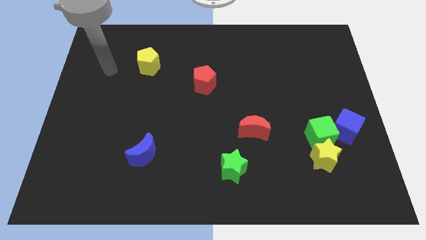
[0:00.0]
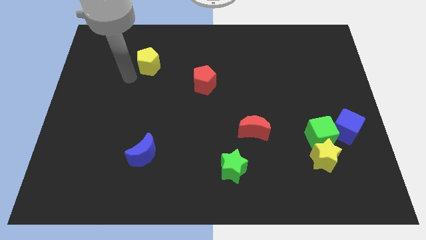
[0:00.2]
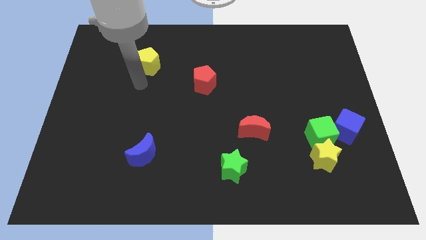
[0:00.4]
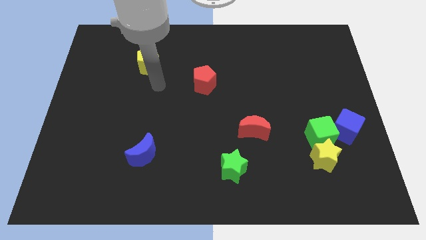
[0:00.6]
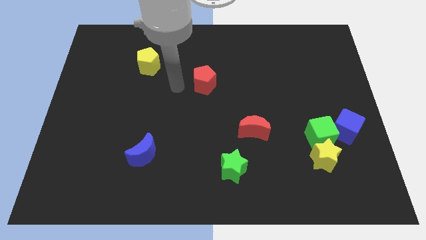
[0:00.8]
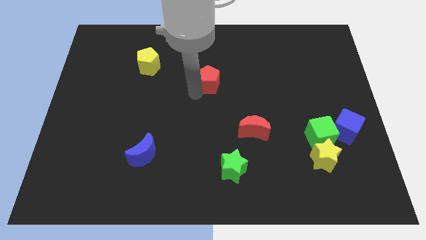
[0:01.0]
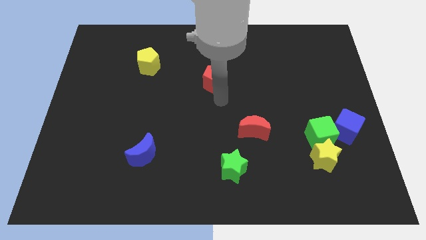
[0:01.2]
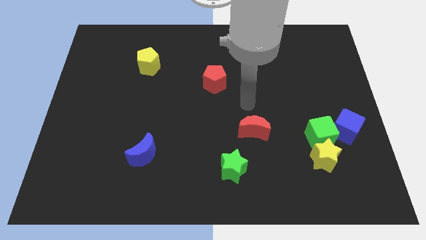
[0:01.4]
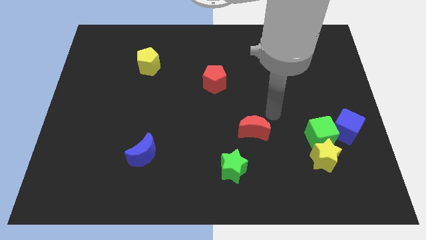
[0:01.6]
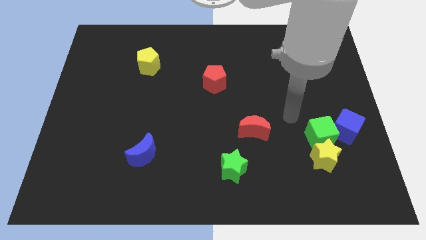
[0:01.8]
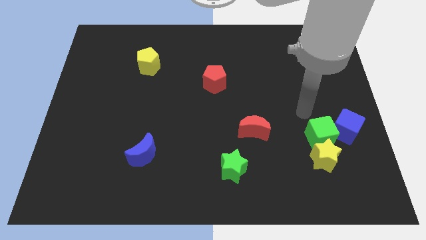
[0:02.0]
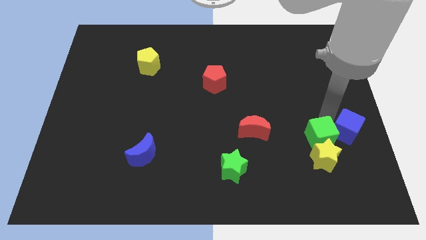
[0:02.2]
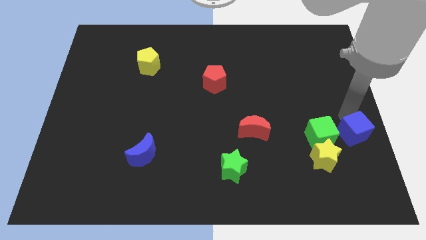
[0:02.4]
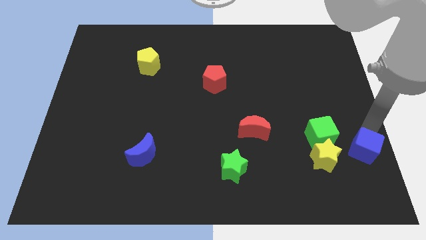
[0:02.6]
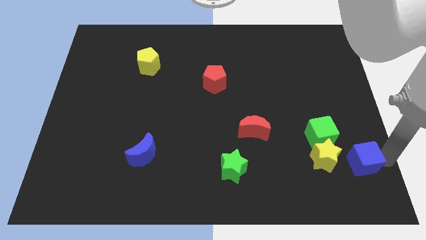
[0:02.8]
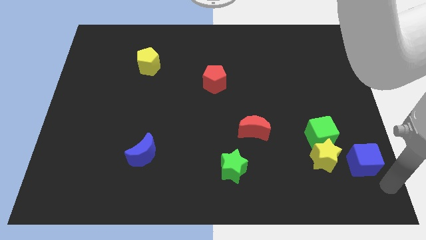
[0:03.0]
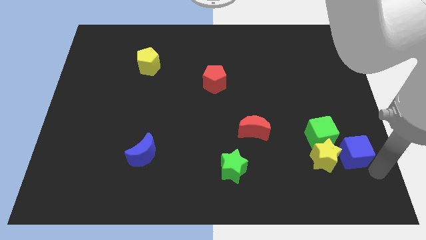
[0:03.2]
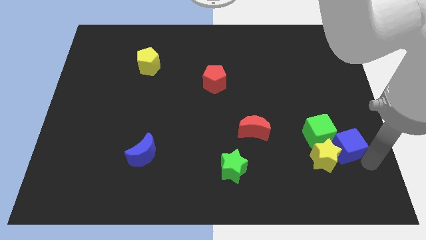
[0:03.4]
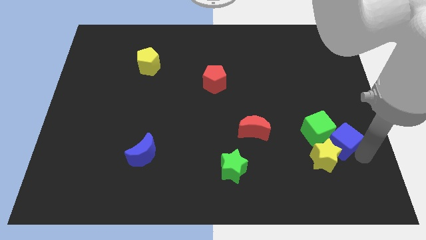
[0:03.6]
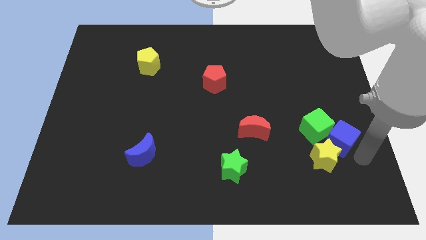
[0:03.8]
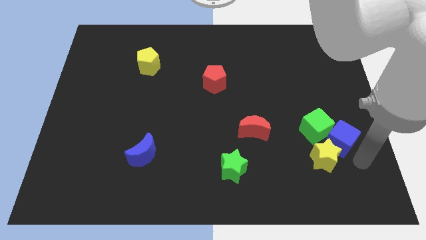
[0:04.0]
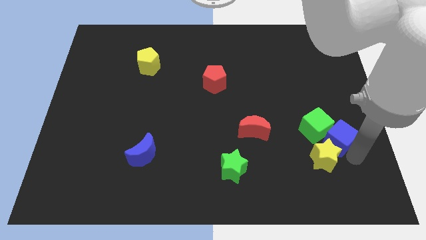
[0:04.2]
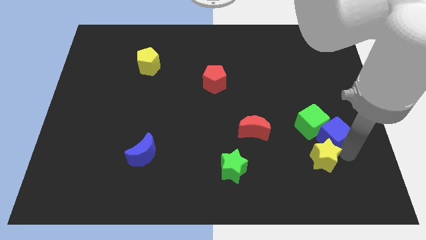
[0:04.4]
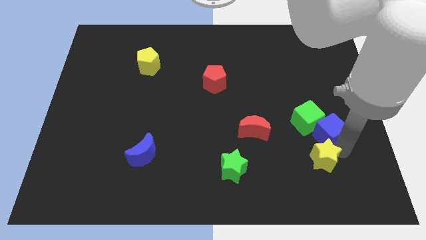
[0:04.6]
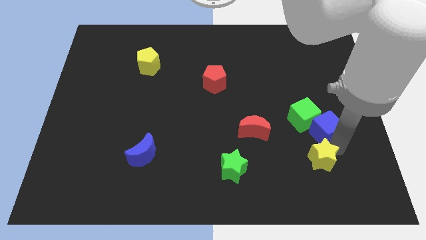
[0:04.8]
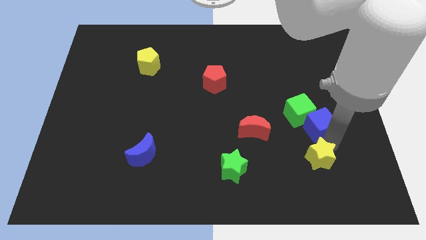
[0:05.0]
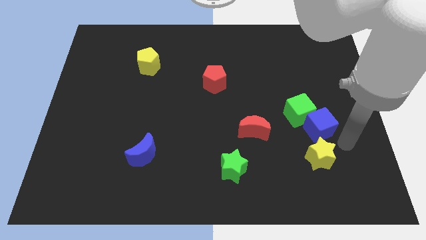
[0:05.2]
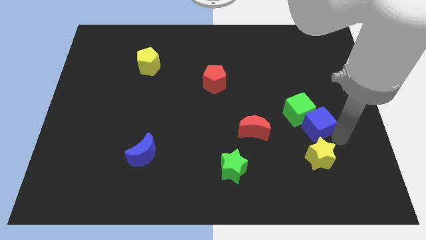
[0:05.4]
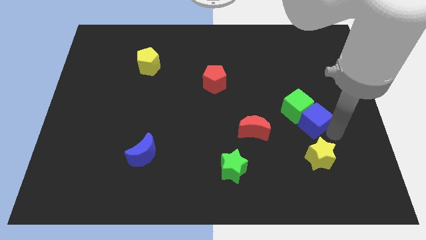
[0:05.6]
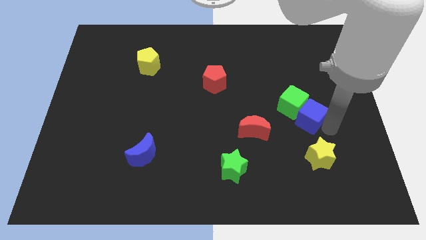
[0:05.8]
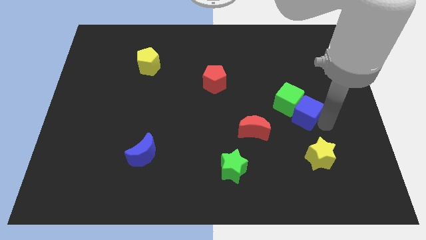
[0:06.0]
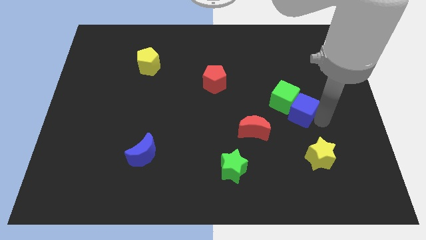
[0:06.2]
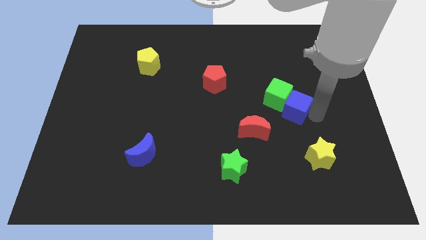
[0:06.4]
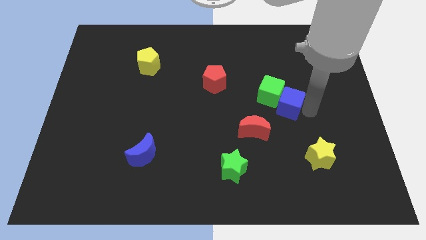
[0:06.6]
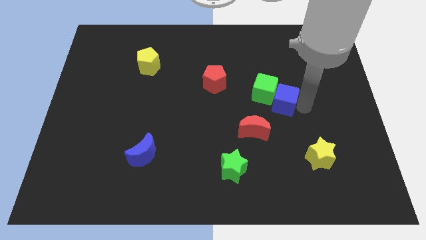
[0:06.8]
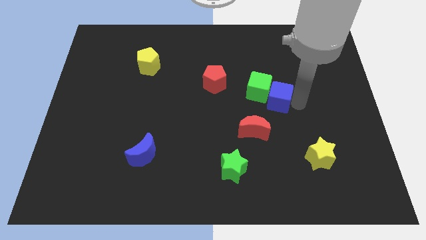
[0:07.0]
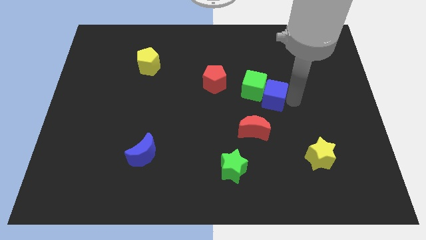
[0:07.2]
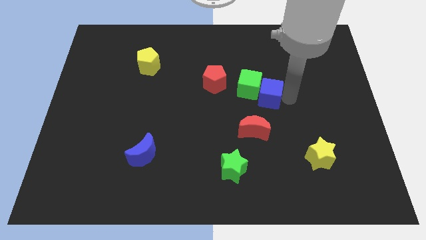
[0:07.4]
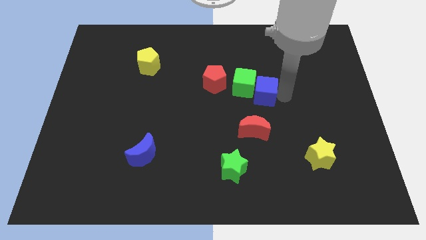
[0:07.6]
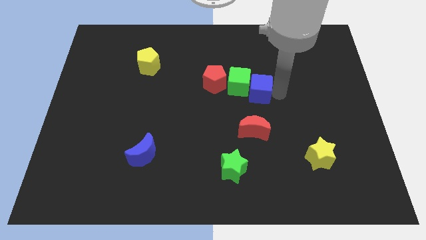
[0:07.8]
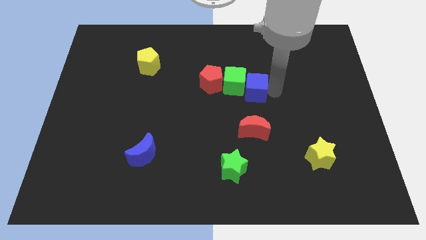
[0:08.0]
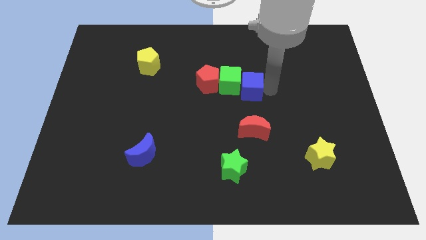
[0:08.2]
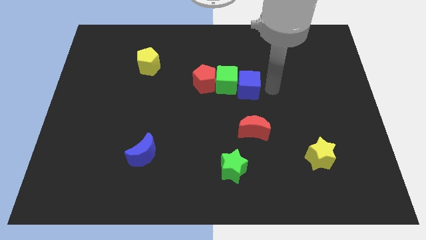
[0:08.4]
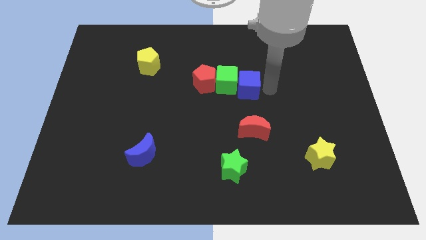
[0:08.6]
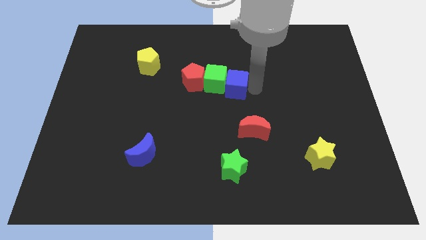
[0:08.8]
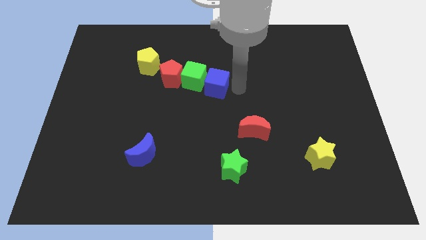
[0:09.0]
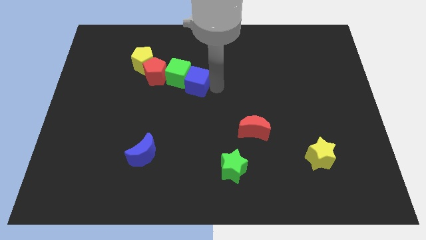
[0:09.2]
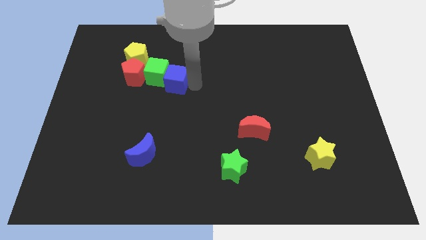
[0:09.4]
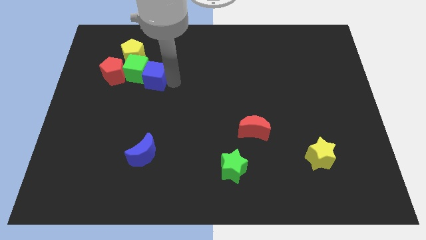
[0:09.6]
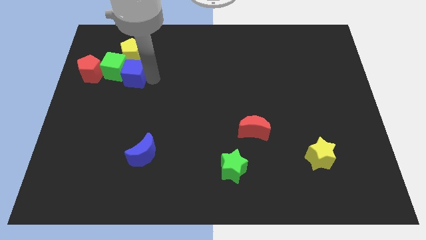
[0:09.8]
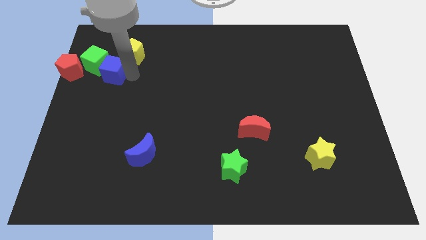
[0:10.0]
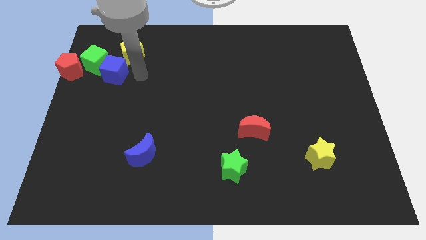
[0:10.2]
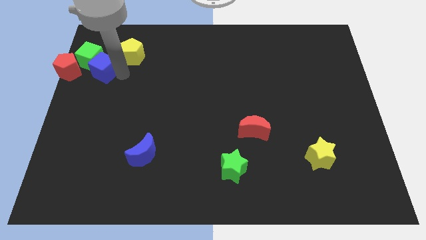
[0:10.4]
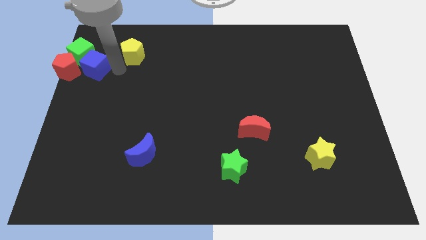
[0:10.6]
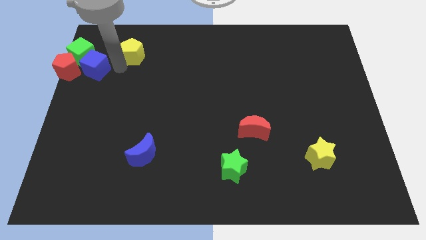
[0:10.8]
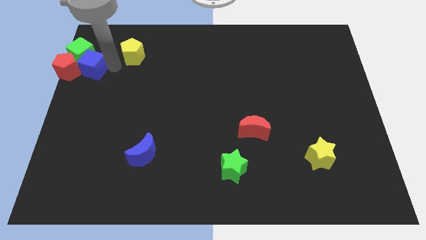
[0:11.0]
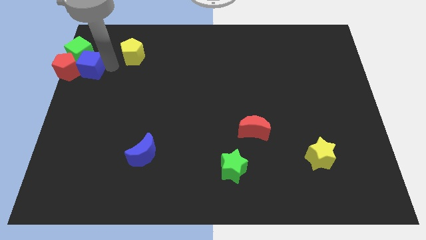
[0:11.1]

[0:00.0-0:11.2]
put the blue cube next to the red pentagon

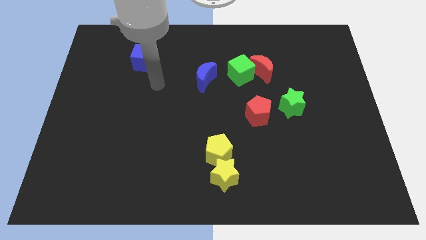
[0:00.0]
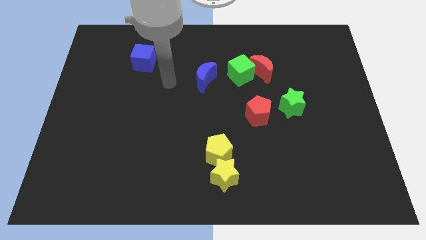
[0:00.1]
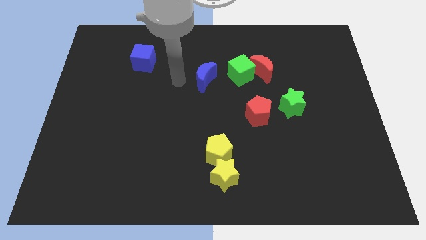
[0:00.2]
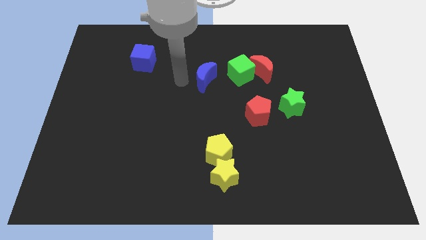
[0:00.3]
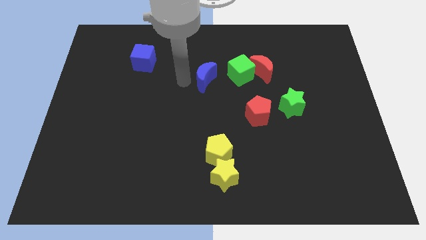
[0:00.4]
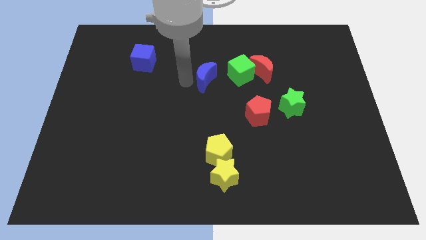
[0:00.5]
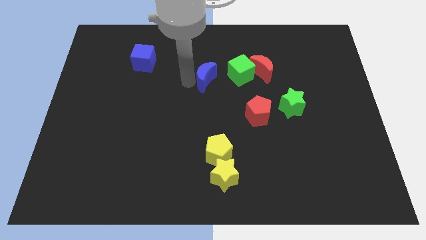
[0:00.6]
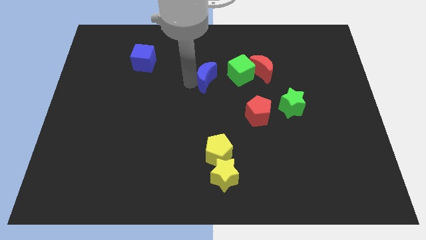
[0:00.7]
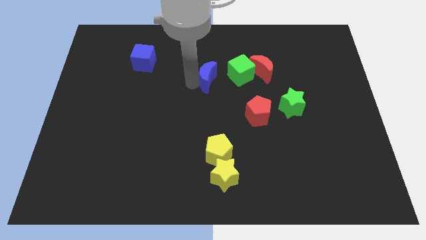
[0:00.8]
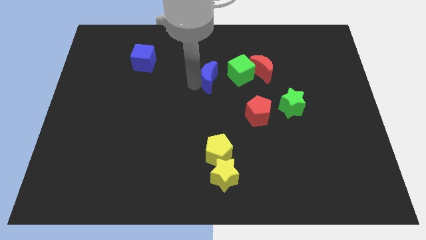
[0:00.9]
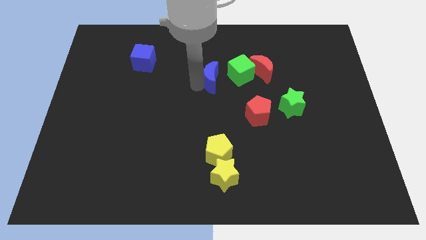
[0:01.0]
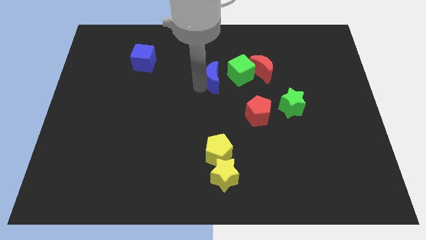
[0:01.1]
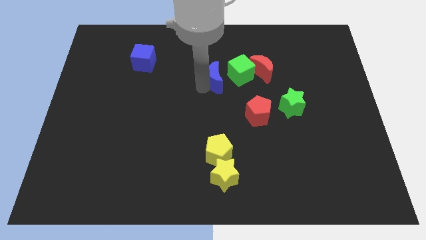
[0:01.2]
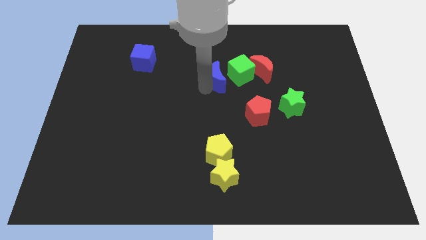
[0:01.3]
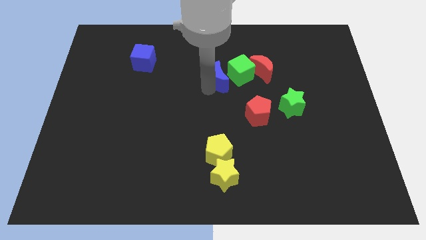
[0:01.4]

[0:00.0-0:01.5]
slide the blue moon close to the green cube
